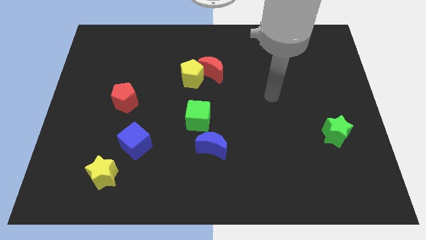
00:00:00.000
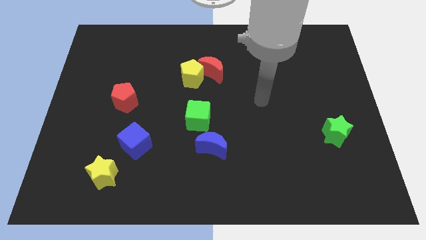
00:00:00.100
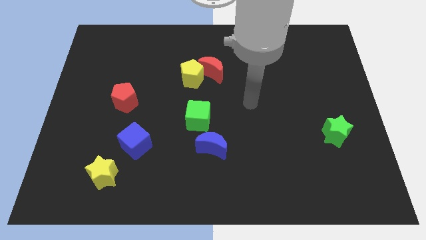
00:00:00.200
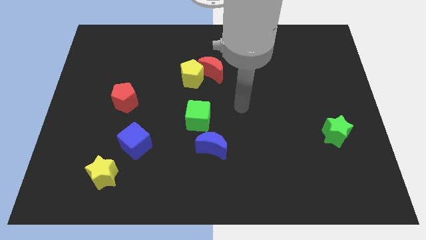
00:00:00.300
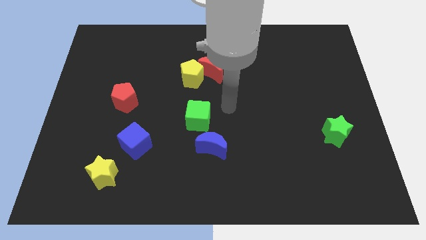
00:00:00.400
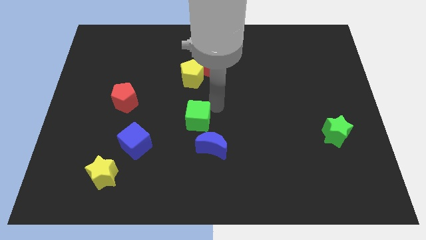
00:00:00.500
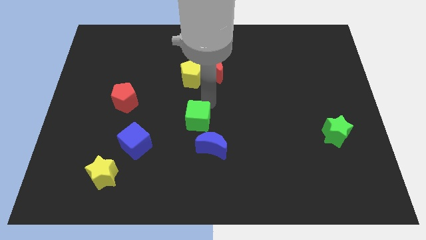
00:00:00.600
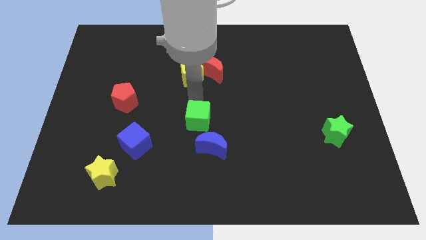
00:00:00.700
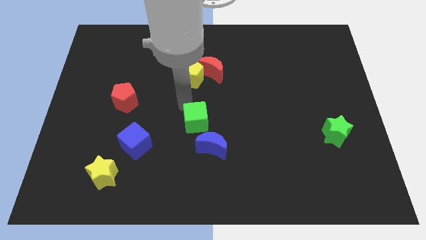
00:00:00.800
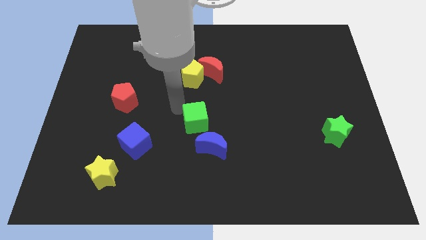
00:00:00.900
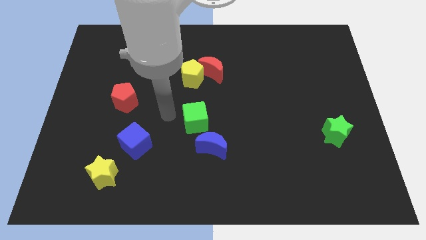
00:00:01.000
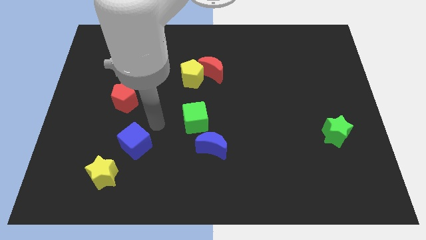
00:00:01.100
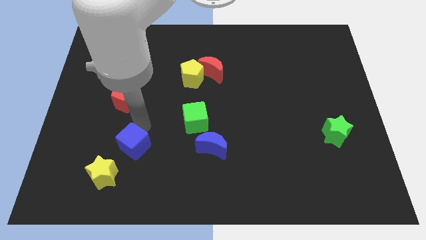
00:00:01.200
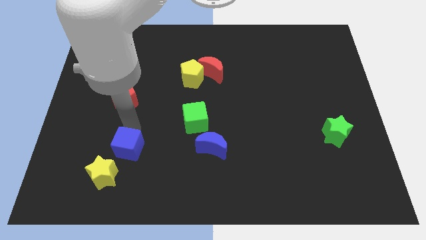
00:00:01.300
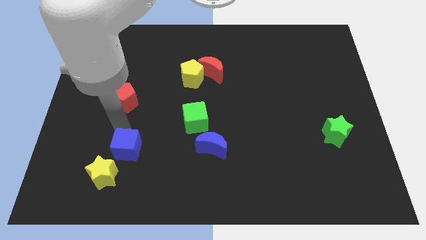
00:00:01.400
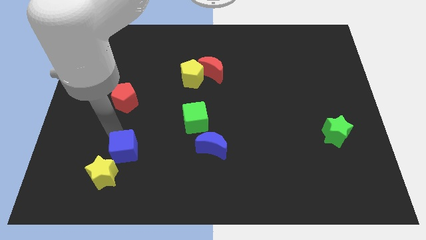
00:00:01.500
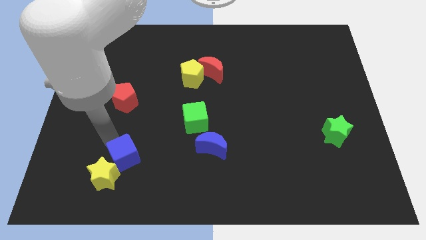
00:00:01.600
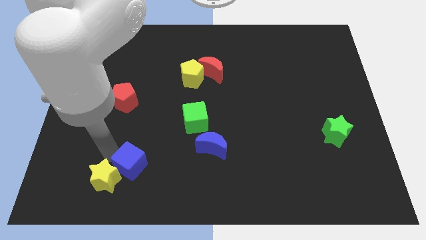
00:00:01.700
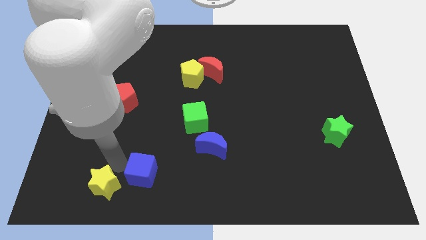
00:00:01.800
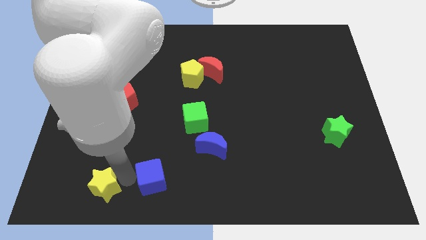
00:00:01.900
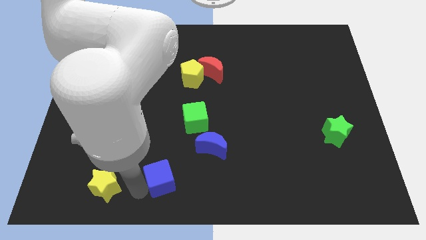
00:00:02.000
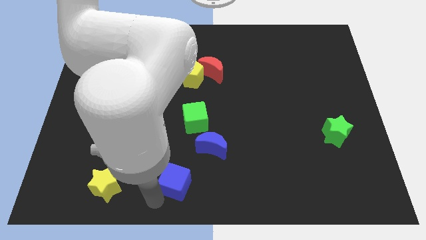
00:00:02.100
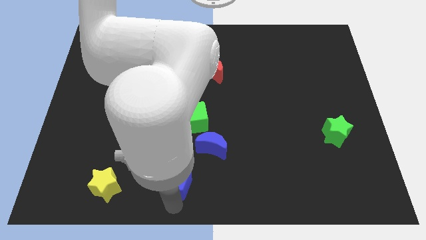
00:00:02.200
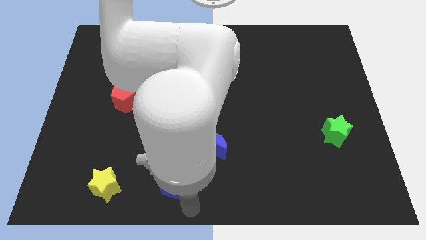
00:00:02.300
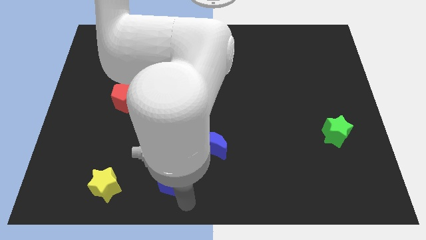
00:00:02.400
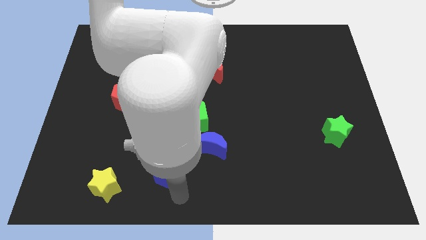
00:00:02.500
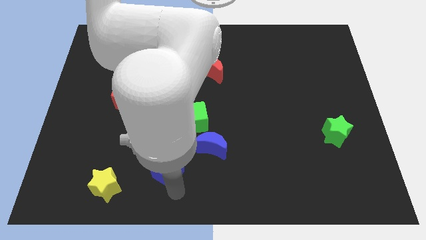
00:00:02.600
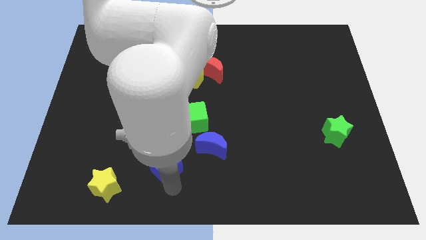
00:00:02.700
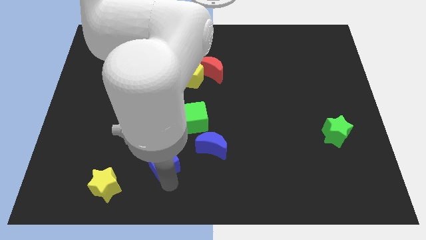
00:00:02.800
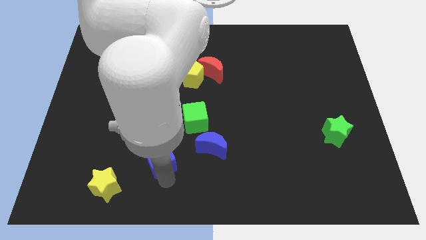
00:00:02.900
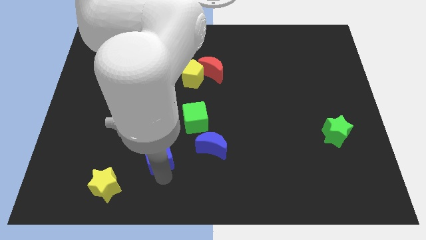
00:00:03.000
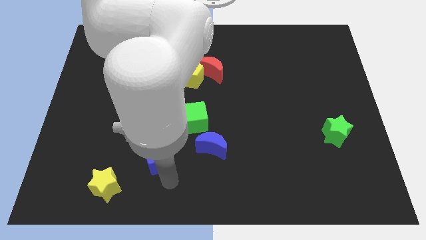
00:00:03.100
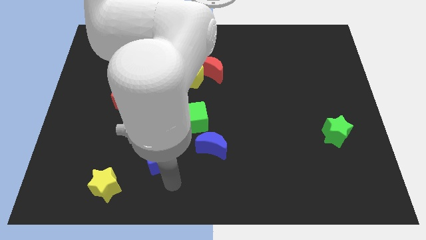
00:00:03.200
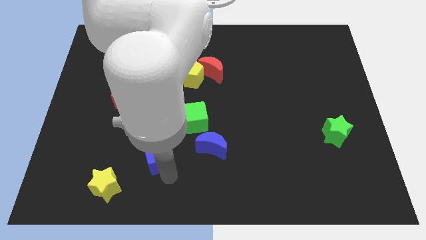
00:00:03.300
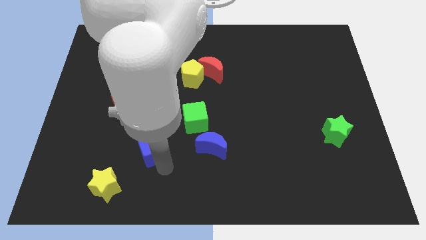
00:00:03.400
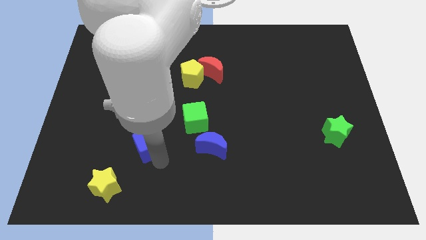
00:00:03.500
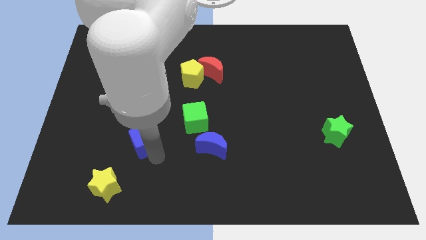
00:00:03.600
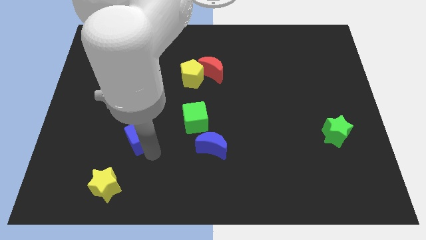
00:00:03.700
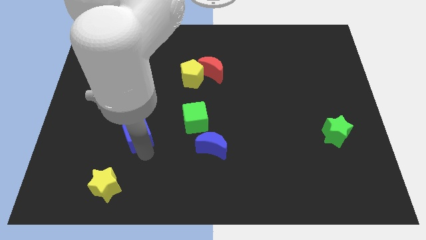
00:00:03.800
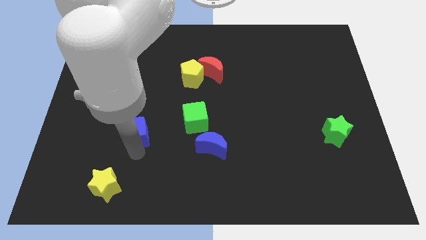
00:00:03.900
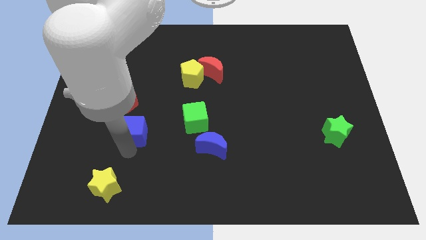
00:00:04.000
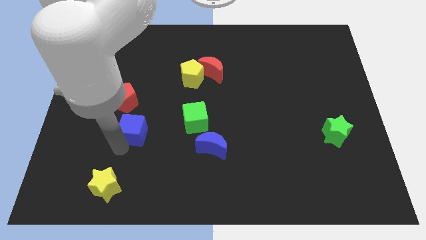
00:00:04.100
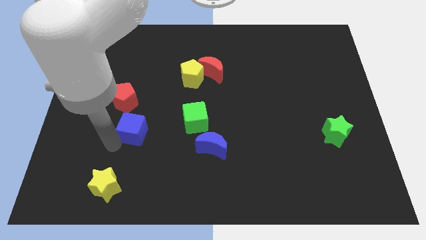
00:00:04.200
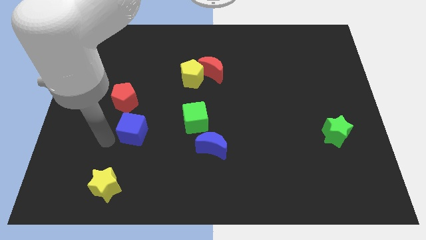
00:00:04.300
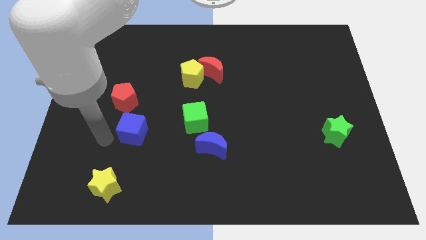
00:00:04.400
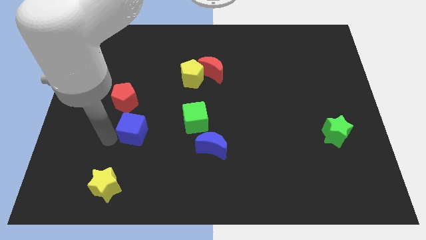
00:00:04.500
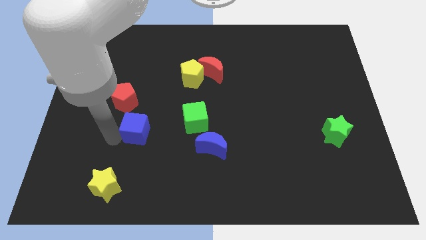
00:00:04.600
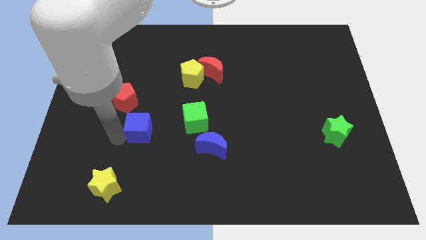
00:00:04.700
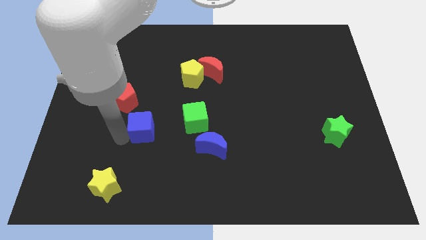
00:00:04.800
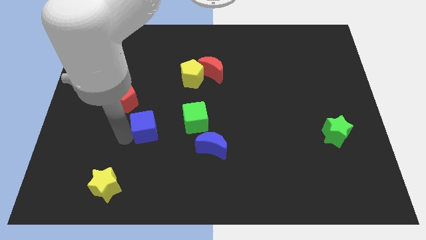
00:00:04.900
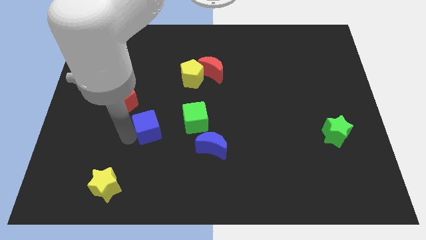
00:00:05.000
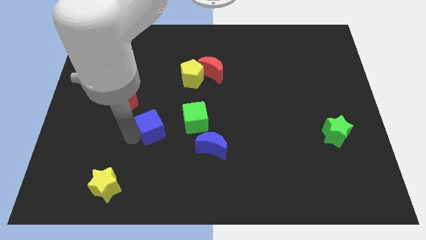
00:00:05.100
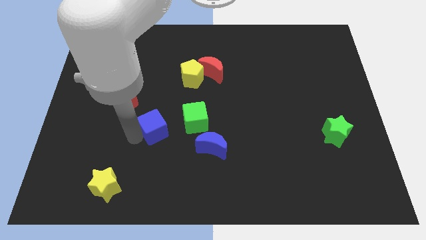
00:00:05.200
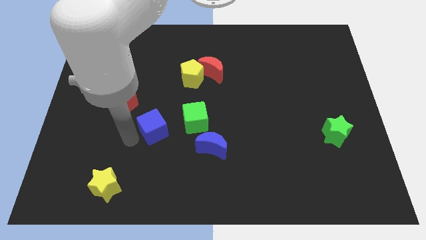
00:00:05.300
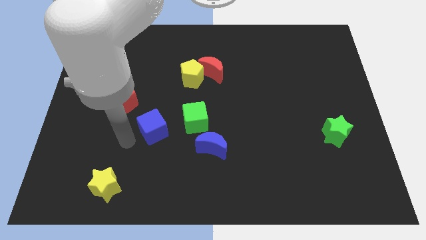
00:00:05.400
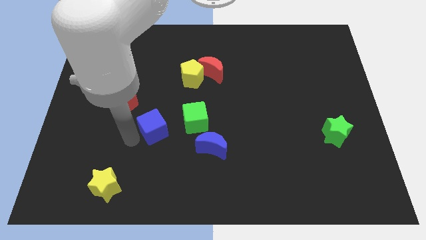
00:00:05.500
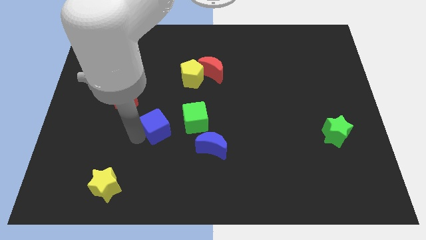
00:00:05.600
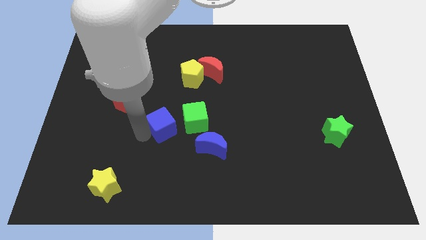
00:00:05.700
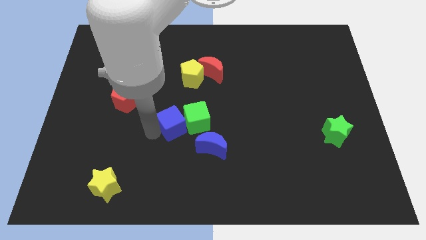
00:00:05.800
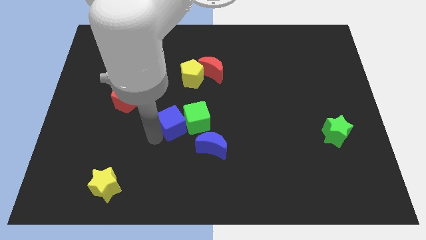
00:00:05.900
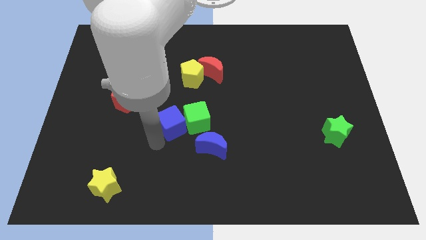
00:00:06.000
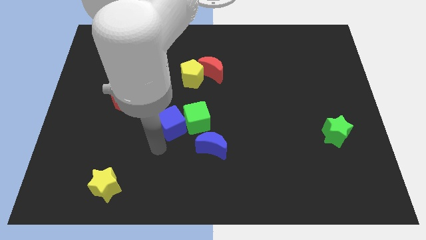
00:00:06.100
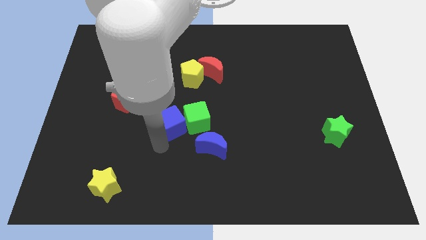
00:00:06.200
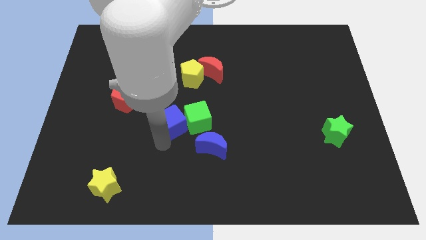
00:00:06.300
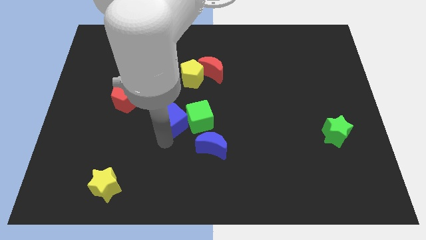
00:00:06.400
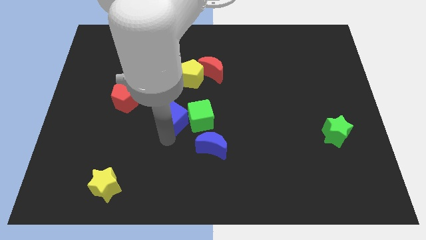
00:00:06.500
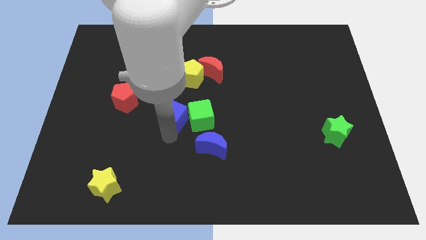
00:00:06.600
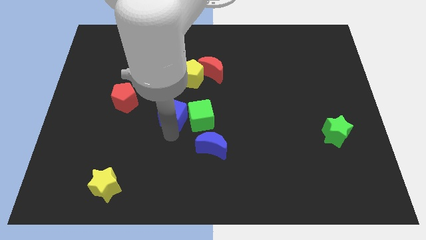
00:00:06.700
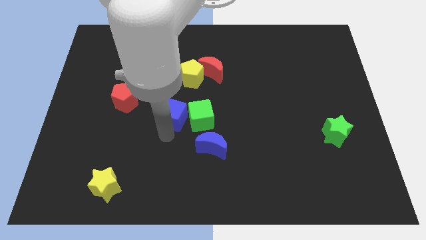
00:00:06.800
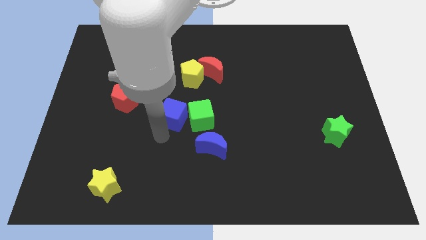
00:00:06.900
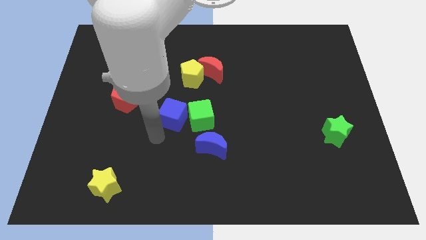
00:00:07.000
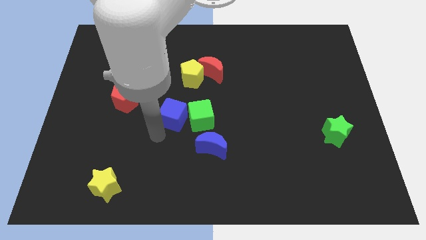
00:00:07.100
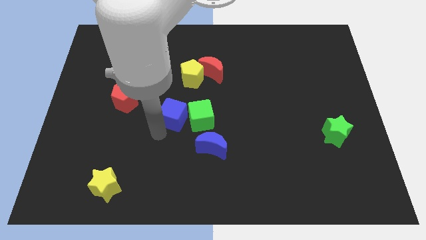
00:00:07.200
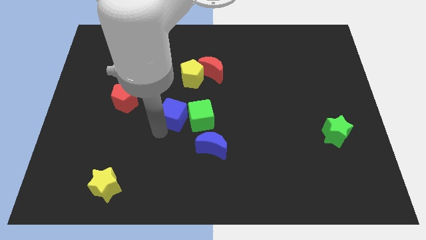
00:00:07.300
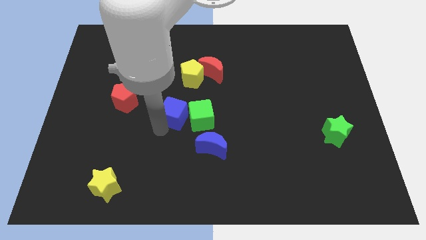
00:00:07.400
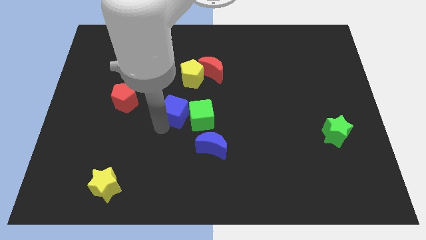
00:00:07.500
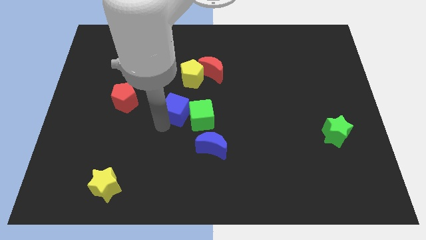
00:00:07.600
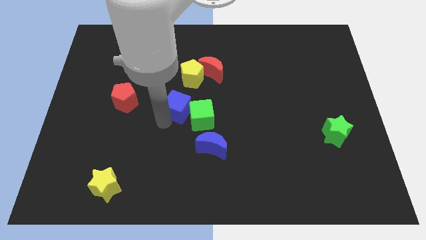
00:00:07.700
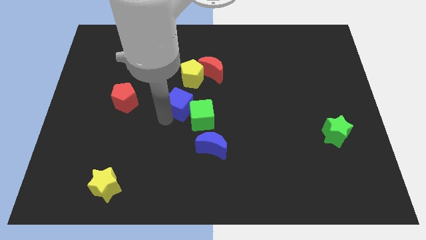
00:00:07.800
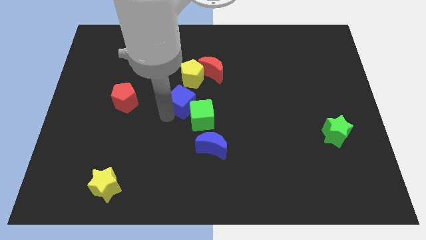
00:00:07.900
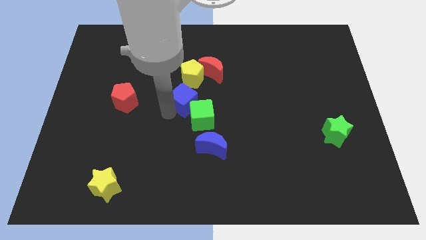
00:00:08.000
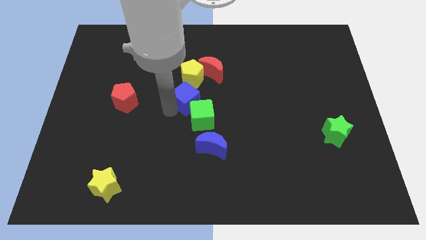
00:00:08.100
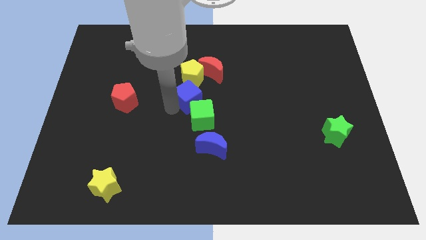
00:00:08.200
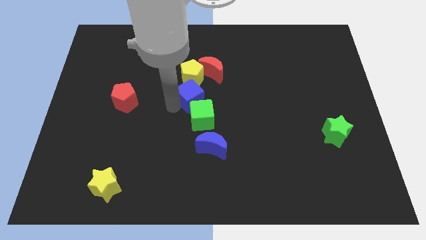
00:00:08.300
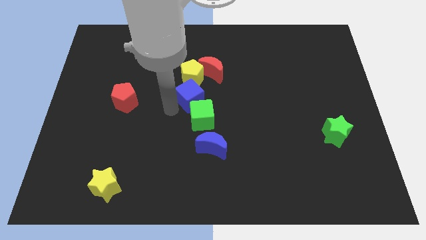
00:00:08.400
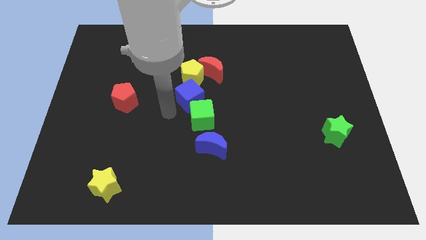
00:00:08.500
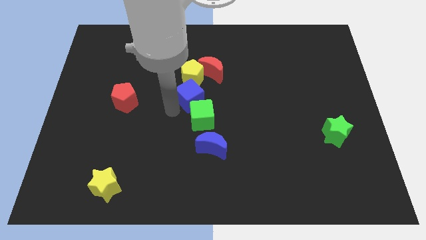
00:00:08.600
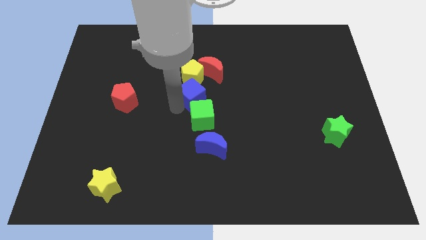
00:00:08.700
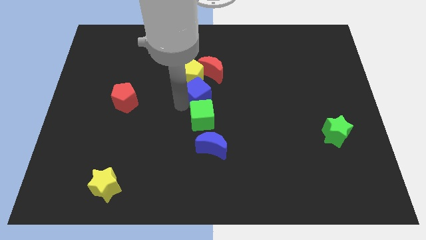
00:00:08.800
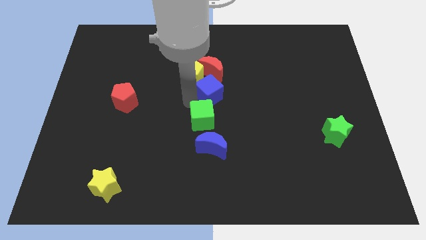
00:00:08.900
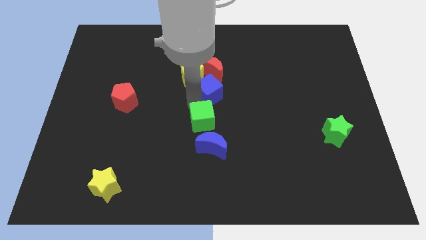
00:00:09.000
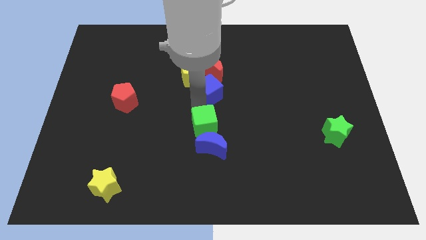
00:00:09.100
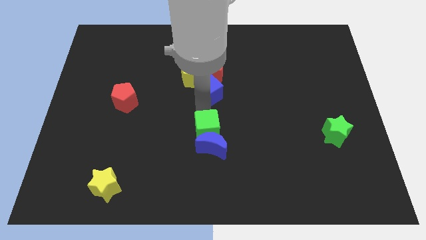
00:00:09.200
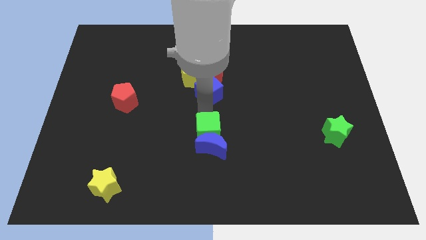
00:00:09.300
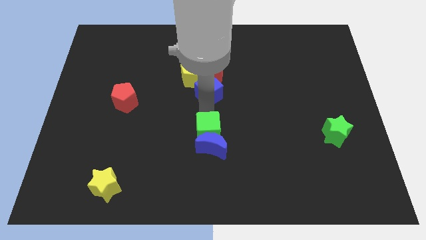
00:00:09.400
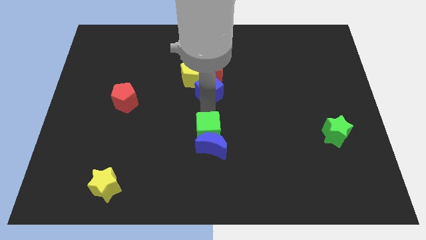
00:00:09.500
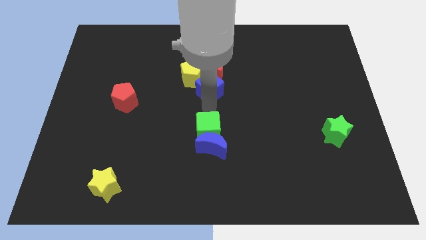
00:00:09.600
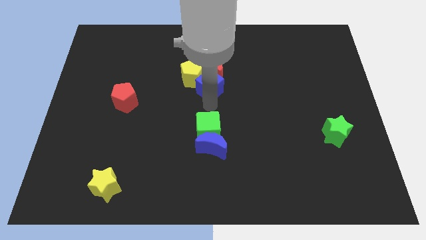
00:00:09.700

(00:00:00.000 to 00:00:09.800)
slide the blue cube towards the red moon
